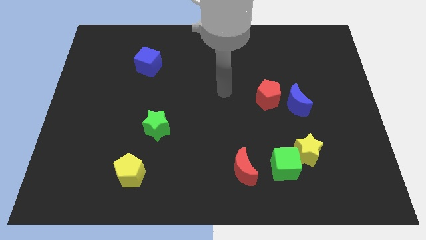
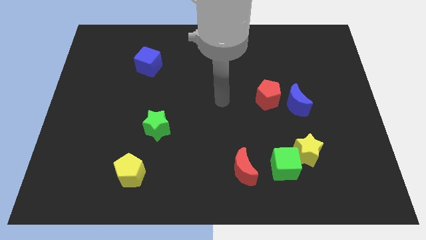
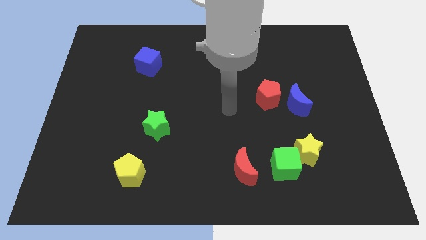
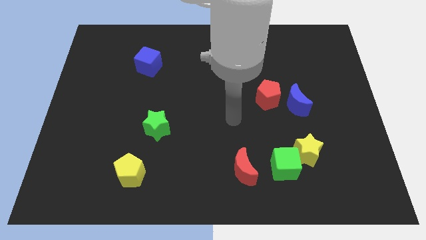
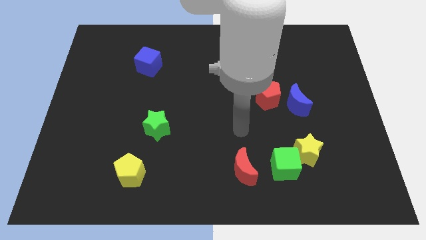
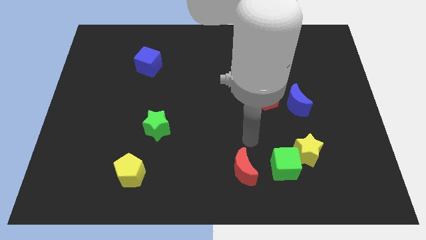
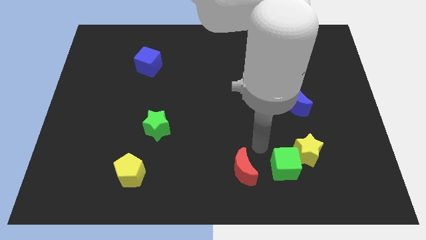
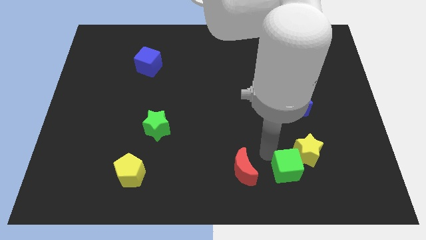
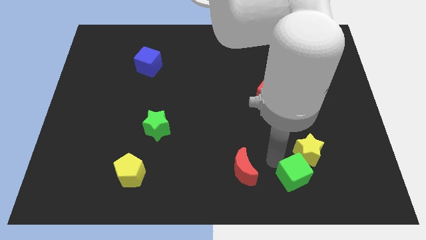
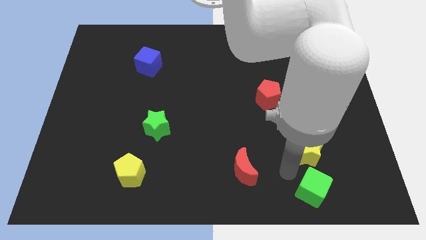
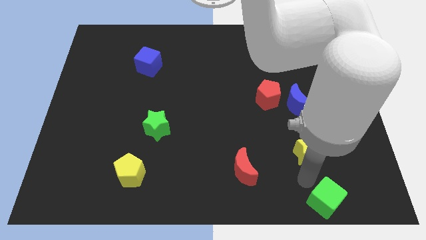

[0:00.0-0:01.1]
pull the yellow star apart from the green cube

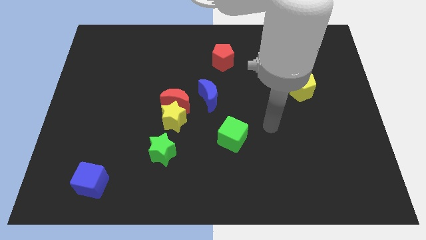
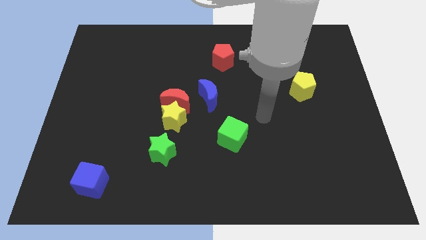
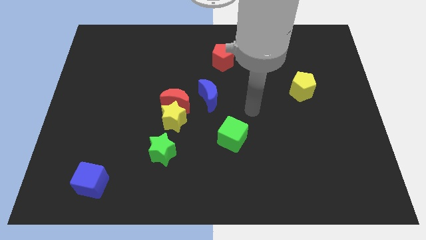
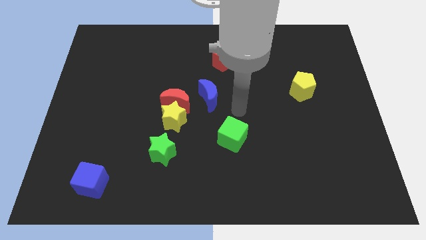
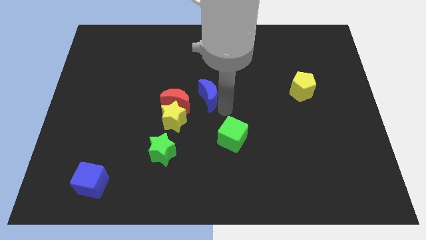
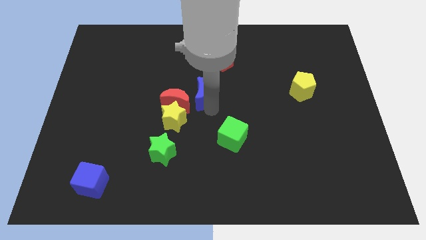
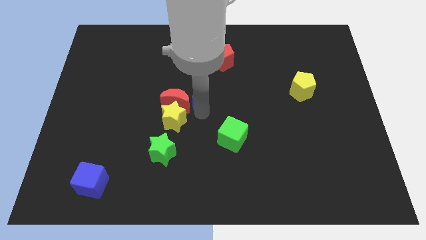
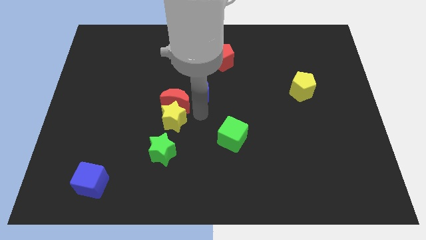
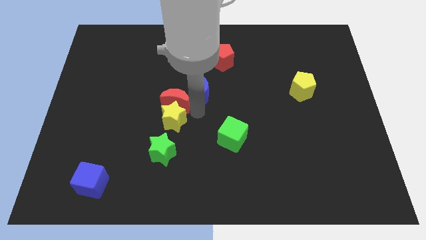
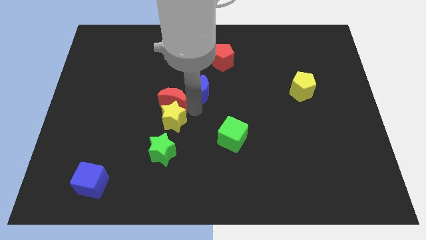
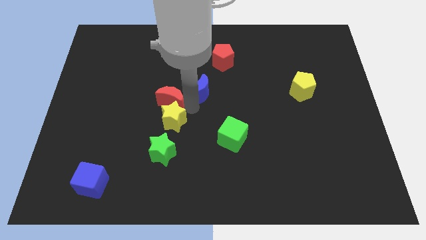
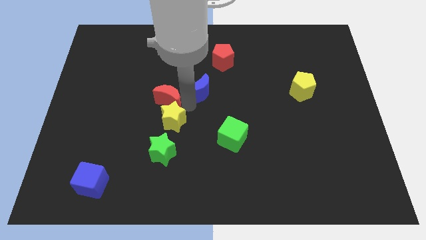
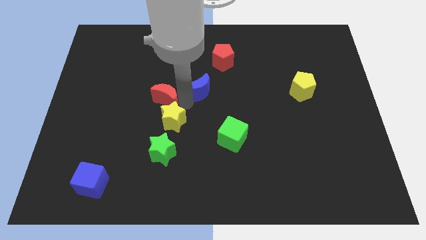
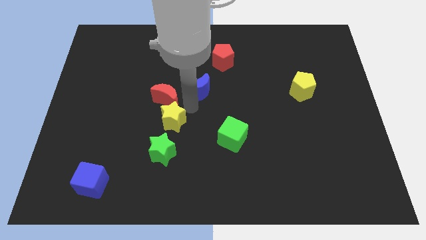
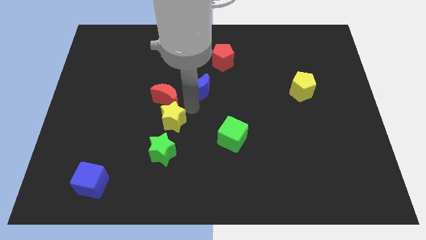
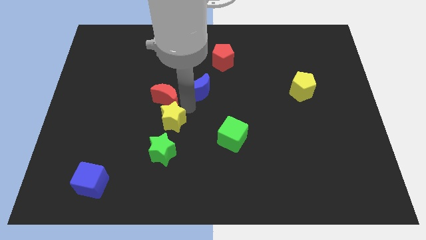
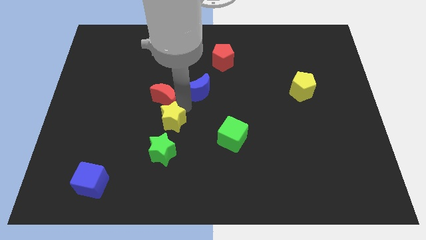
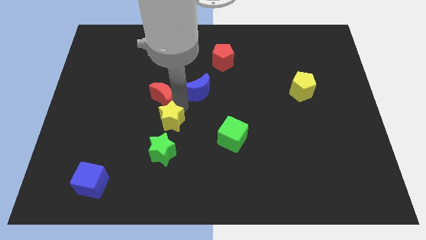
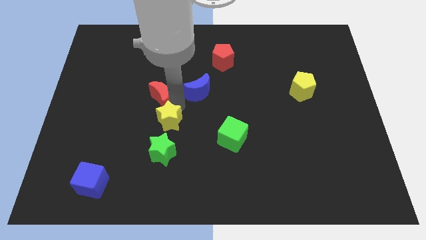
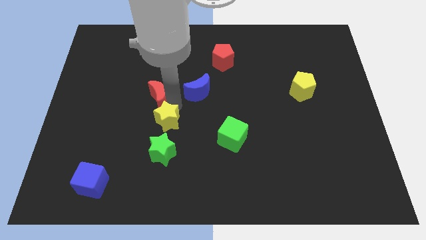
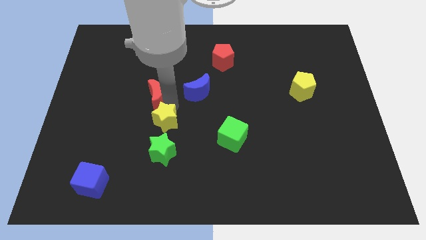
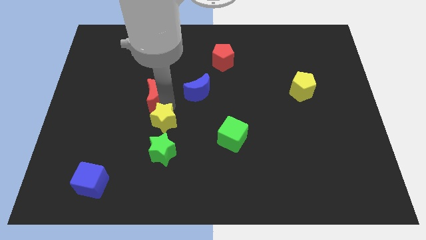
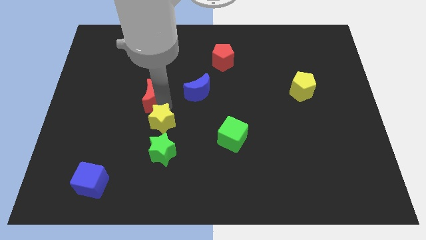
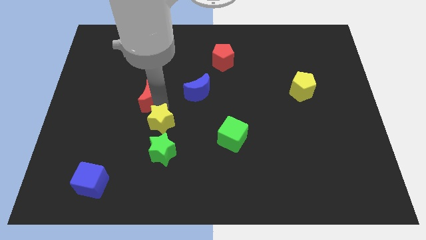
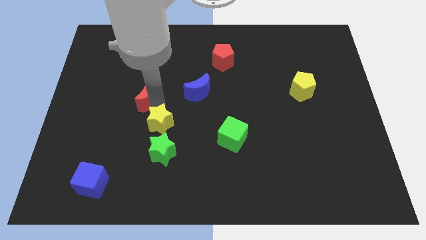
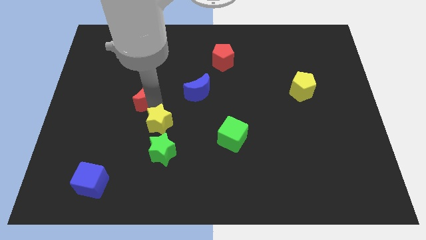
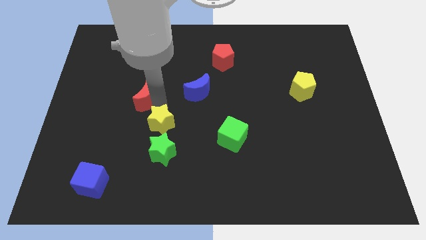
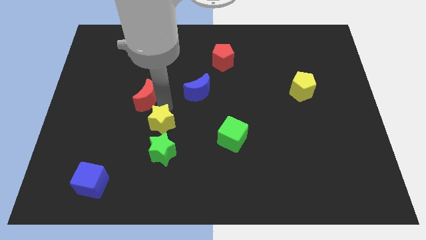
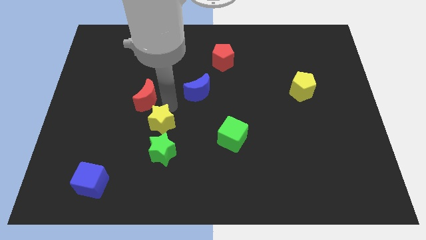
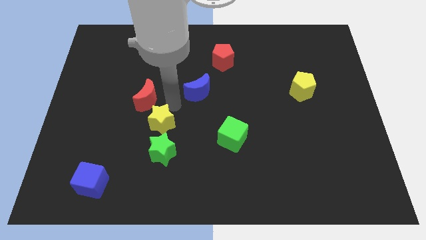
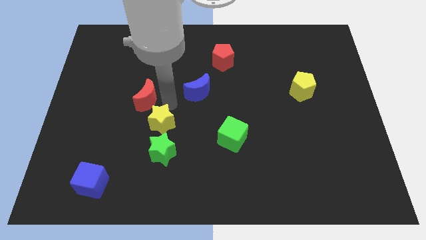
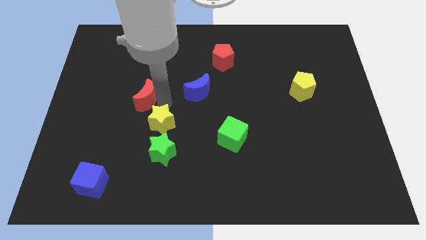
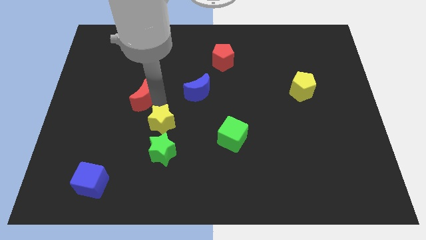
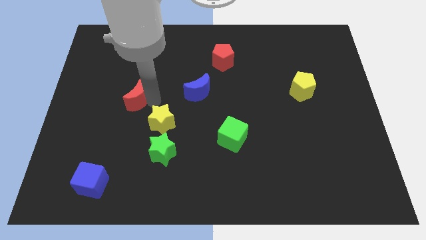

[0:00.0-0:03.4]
separate the red moon from the yellow star and blue moon

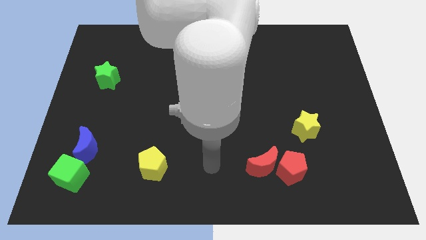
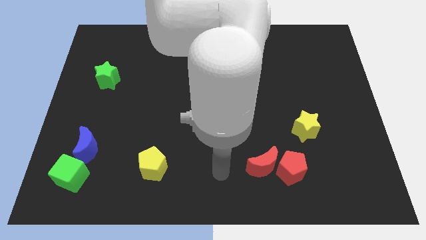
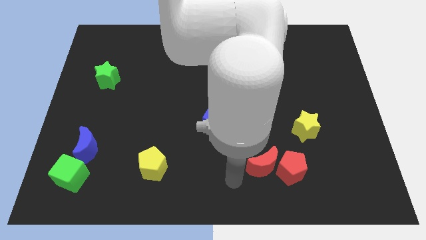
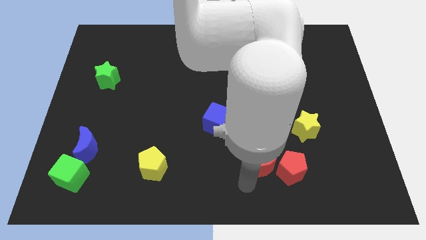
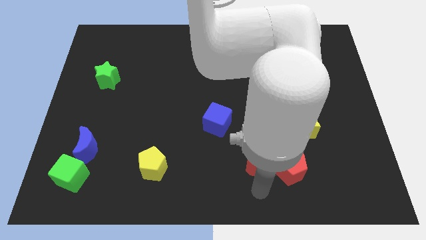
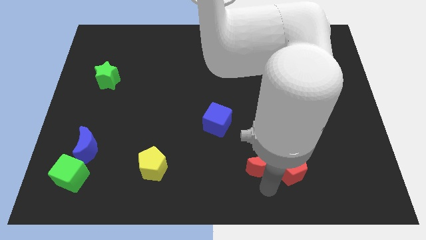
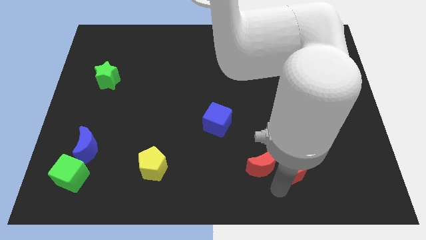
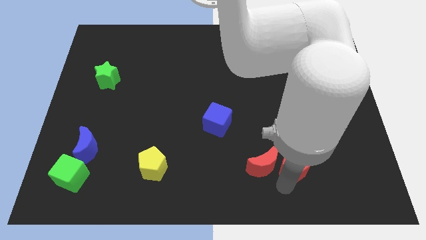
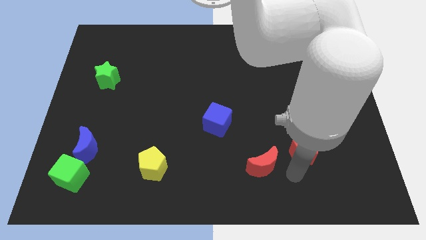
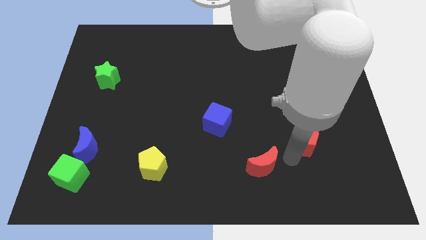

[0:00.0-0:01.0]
pull the red moon apart from the red pentagon

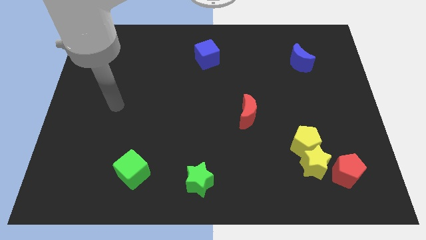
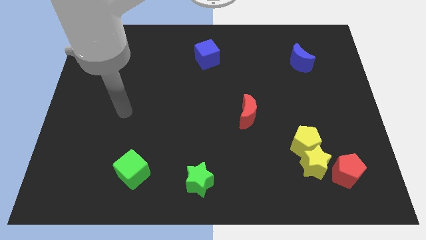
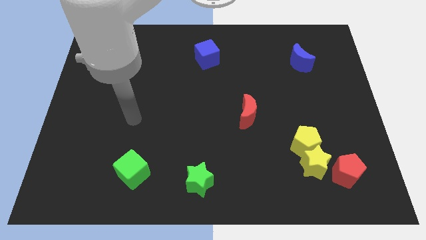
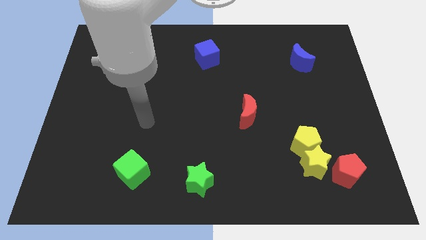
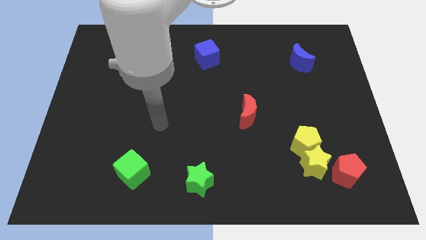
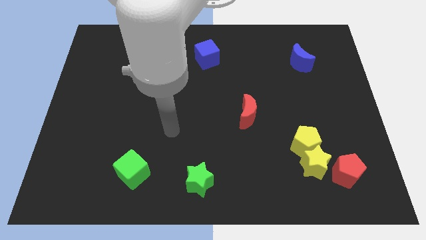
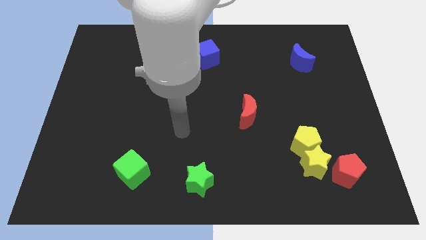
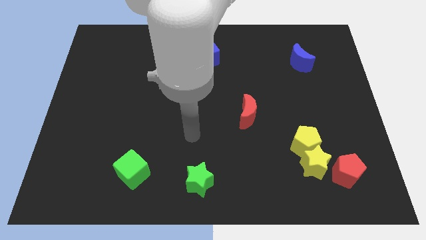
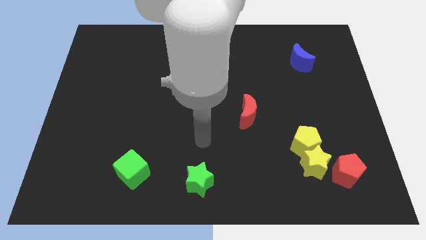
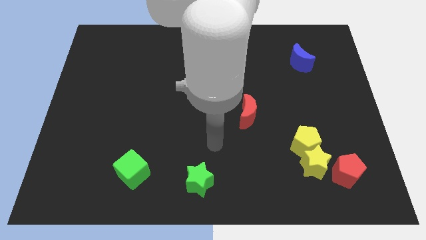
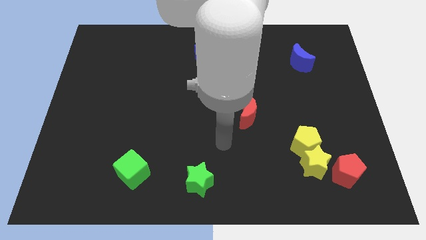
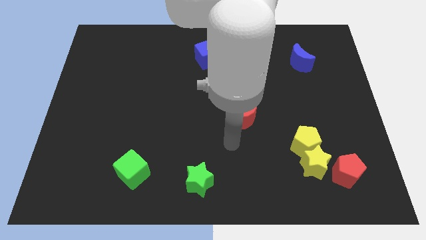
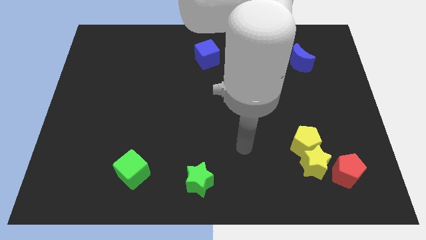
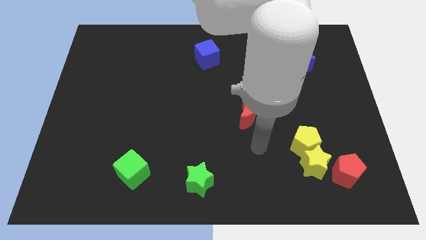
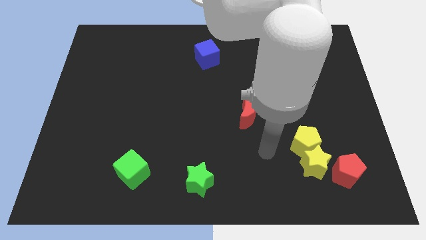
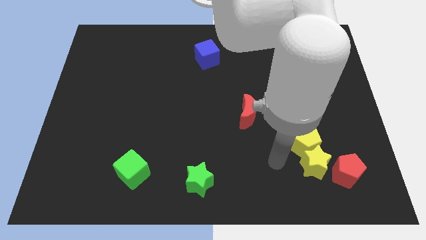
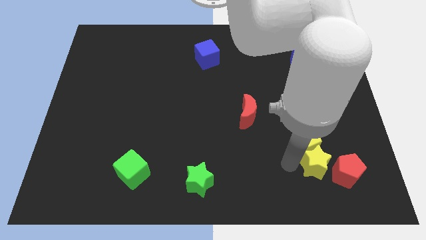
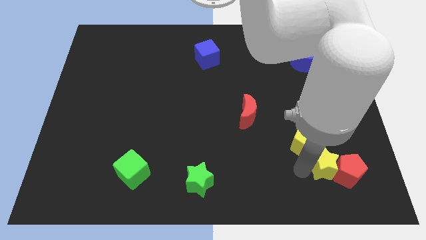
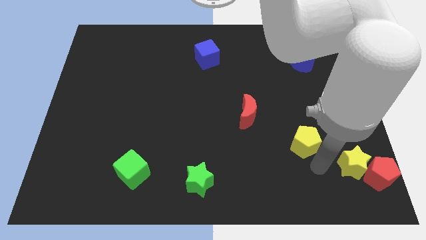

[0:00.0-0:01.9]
pull the yellow pentagon apart from the yellow star

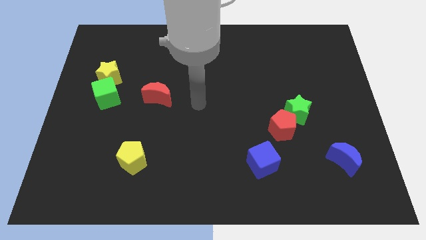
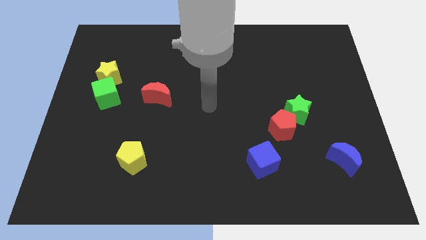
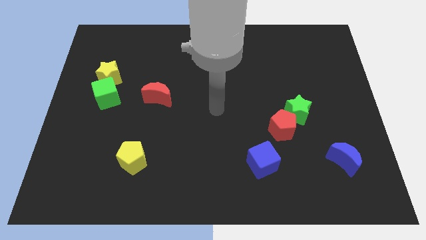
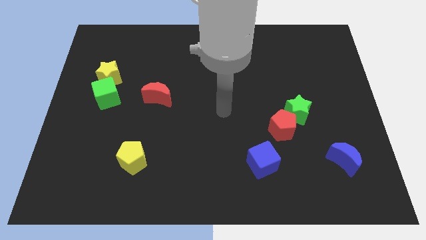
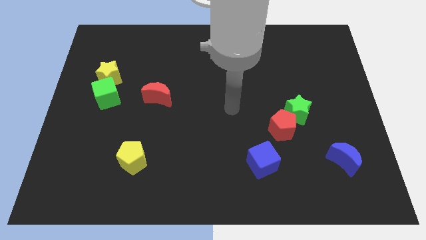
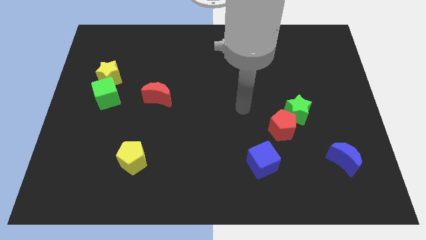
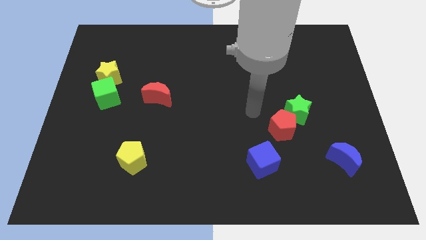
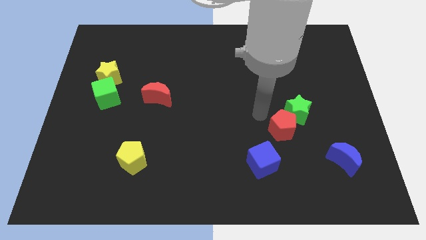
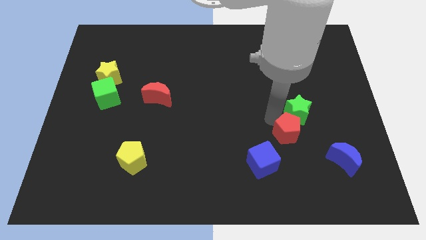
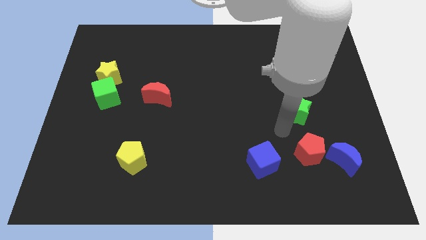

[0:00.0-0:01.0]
move the green star away from the red pentagon

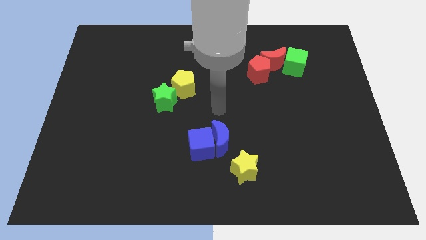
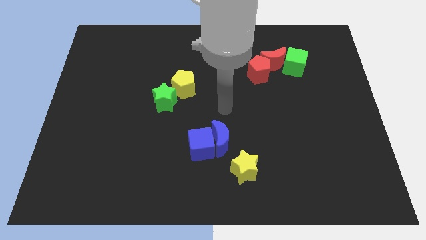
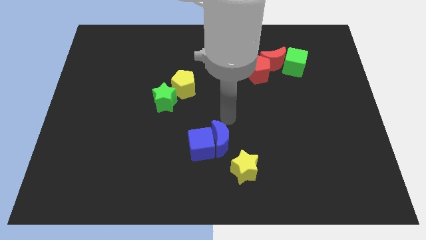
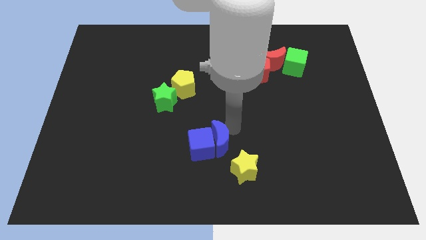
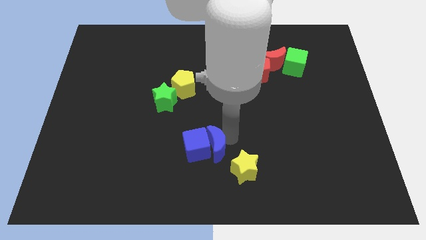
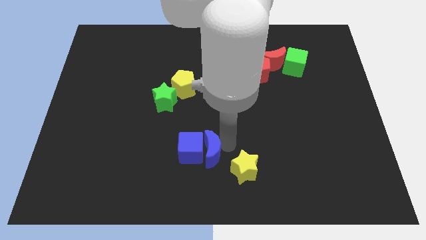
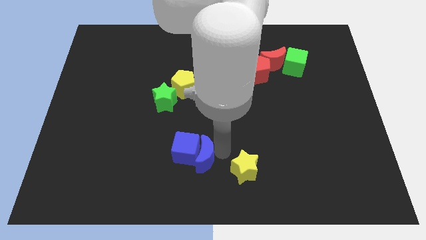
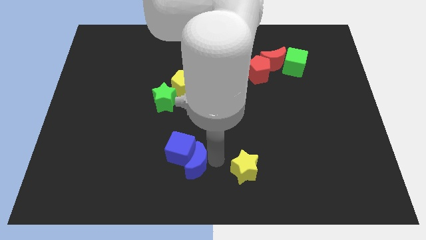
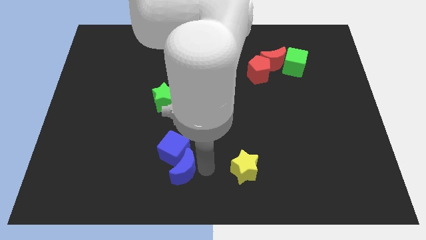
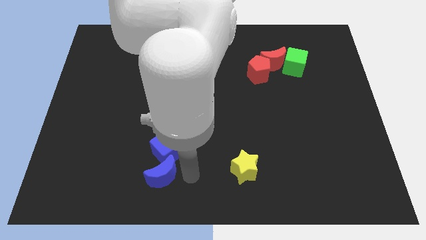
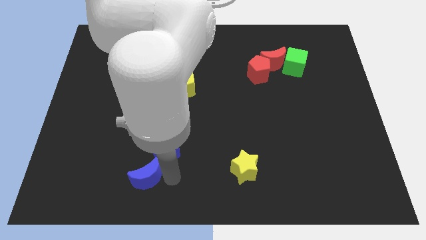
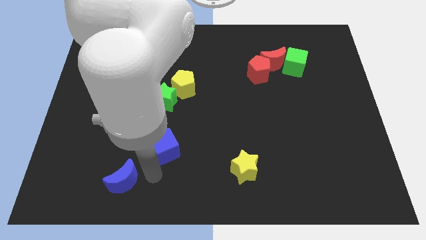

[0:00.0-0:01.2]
move the blue cube away from the blue moon
